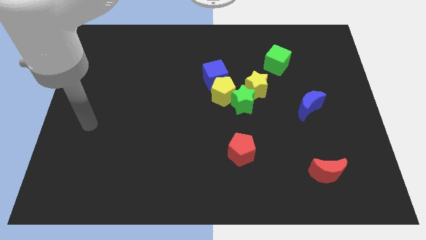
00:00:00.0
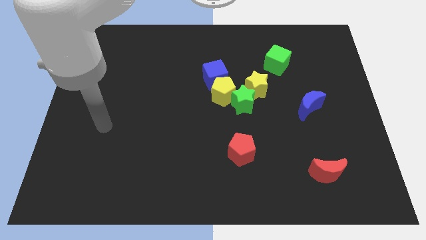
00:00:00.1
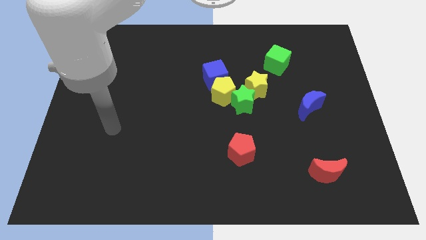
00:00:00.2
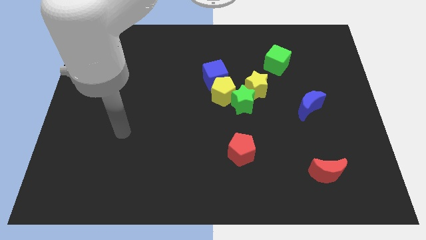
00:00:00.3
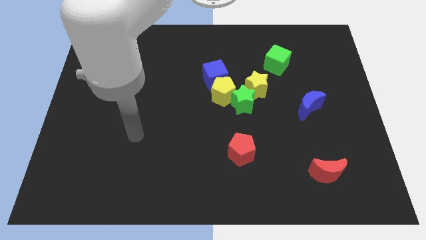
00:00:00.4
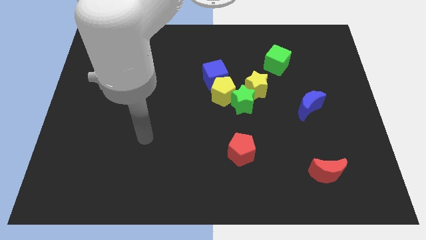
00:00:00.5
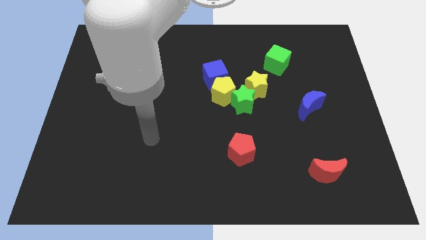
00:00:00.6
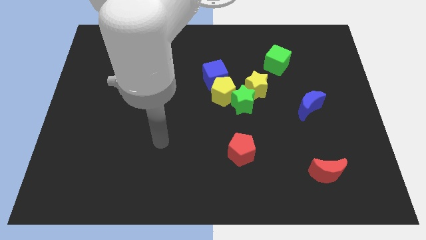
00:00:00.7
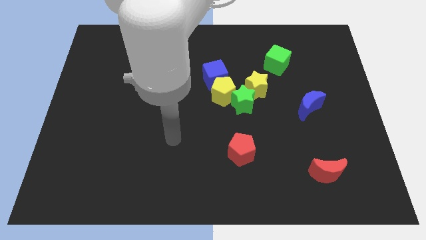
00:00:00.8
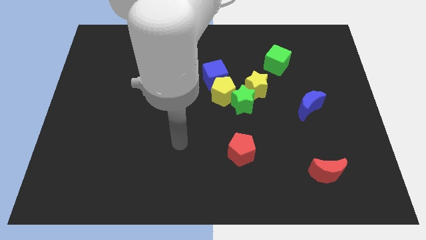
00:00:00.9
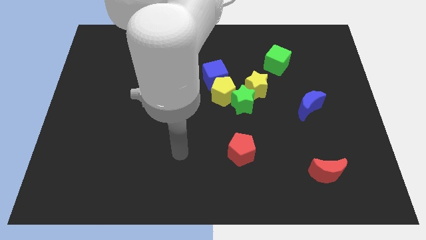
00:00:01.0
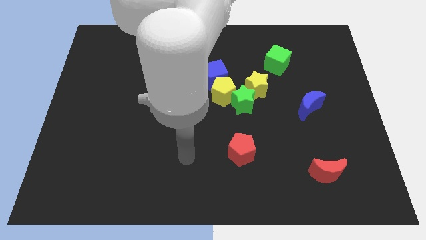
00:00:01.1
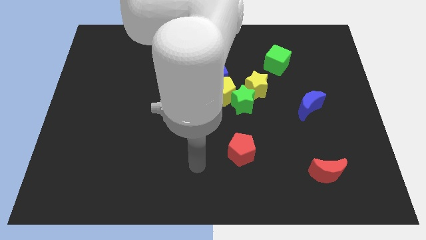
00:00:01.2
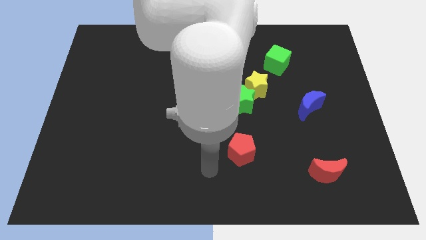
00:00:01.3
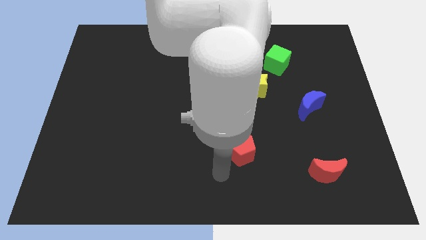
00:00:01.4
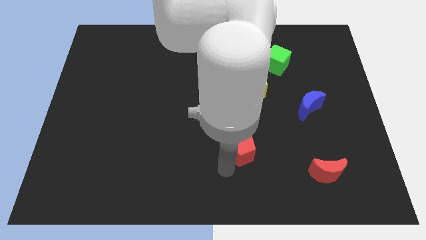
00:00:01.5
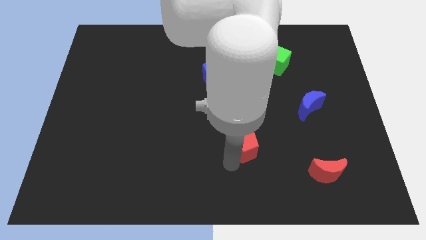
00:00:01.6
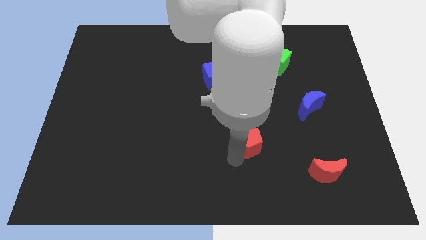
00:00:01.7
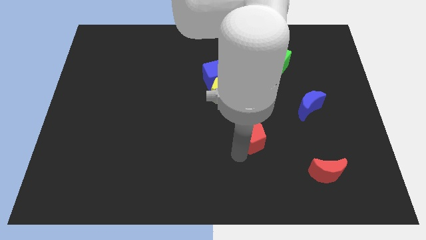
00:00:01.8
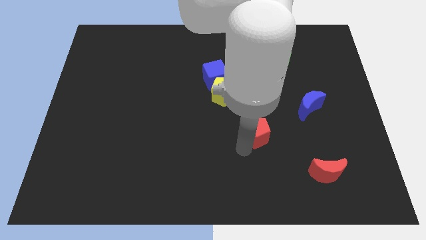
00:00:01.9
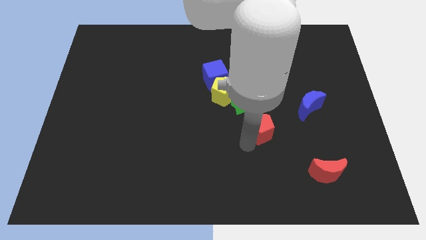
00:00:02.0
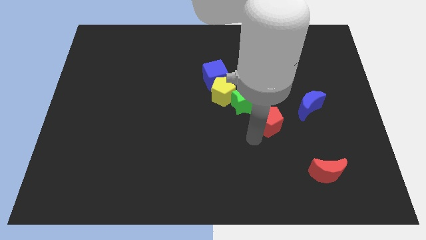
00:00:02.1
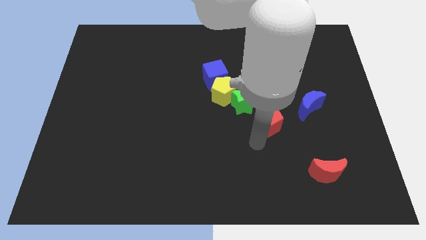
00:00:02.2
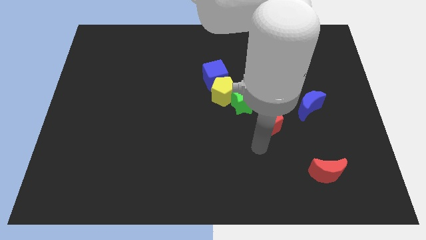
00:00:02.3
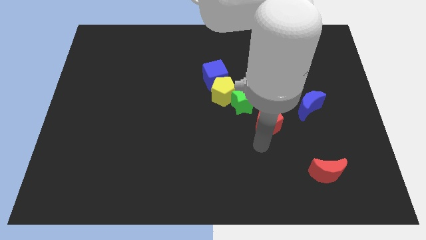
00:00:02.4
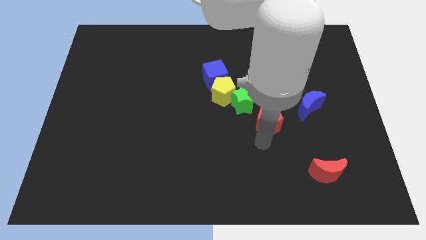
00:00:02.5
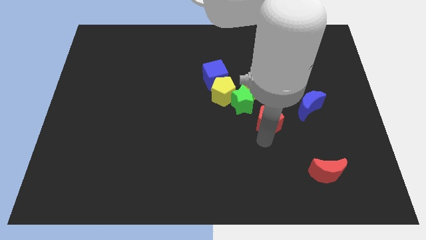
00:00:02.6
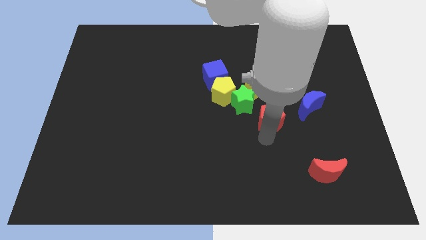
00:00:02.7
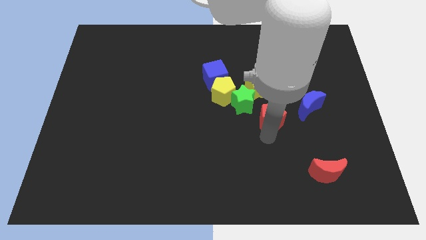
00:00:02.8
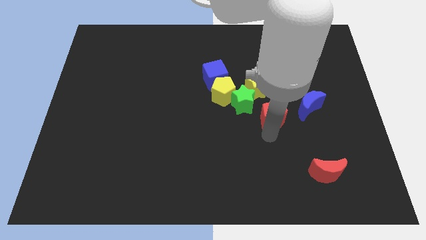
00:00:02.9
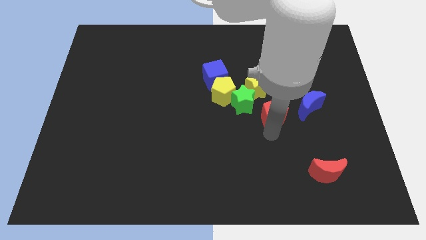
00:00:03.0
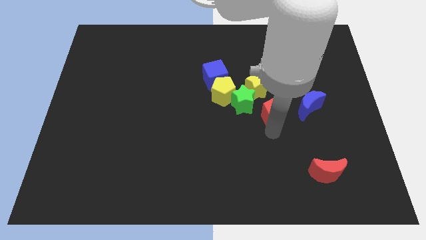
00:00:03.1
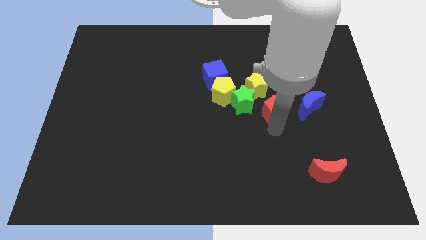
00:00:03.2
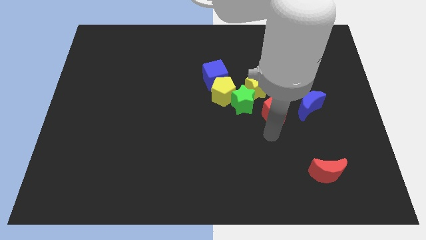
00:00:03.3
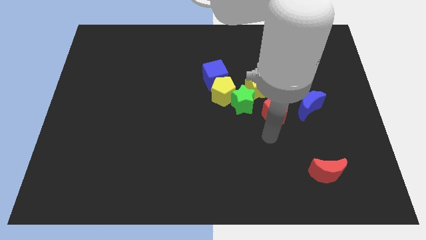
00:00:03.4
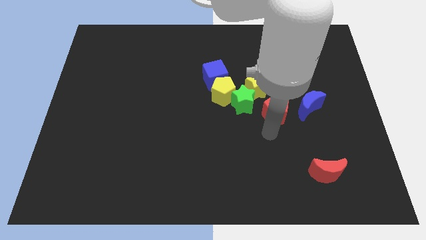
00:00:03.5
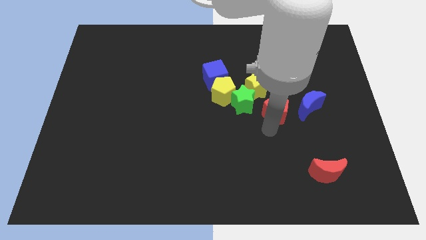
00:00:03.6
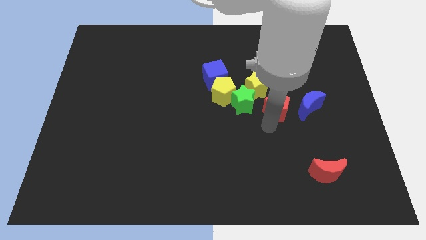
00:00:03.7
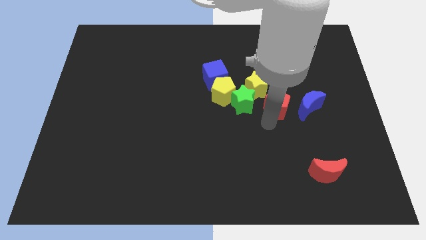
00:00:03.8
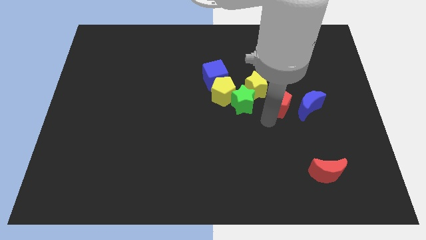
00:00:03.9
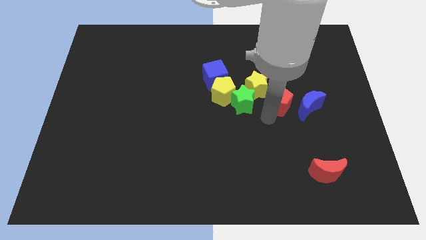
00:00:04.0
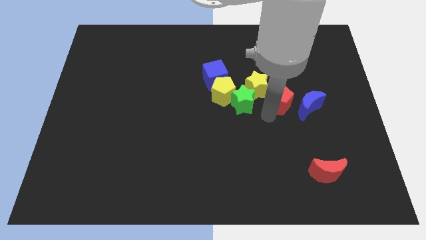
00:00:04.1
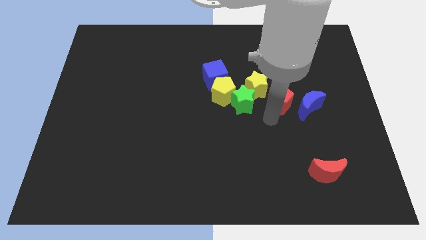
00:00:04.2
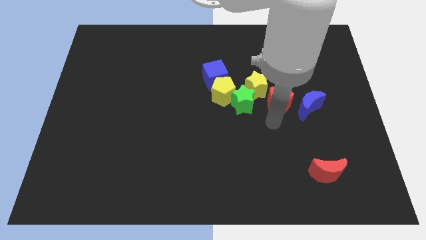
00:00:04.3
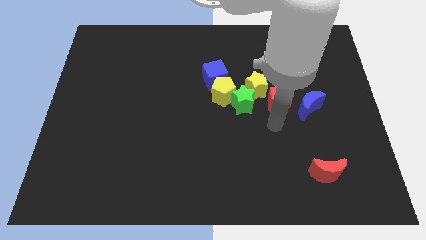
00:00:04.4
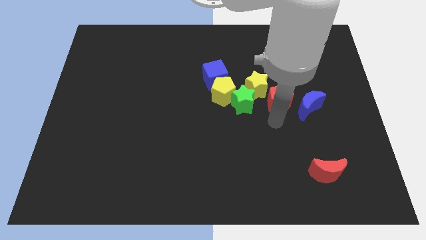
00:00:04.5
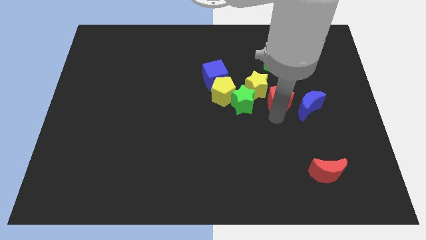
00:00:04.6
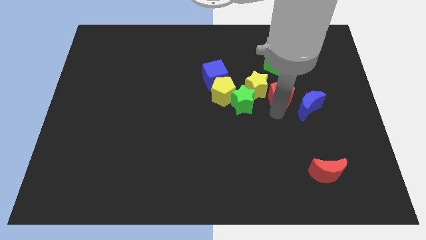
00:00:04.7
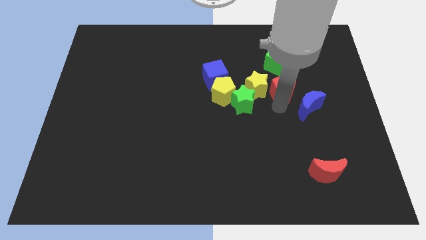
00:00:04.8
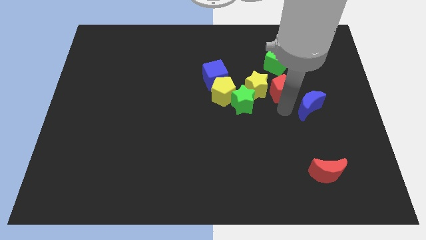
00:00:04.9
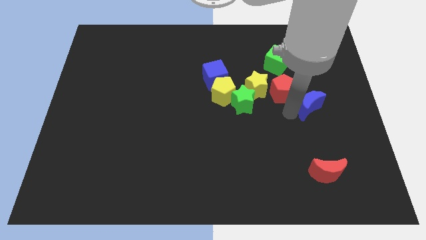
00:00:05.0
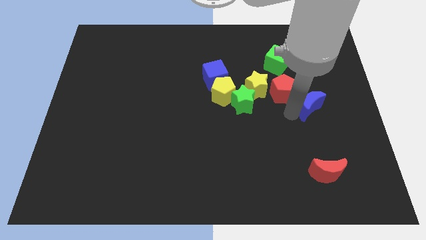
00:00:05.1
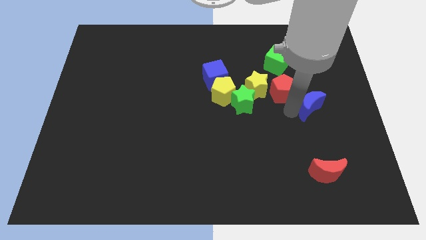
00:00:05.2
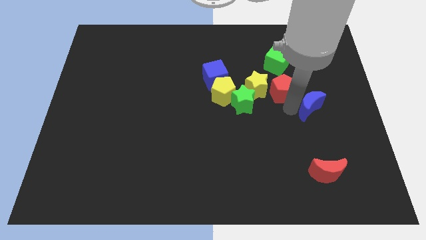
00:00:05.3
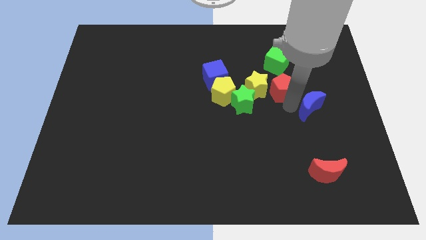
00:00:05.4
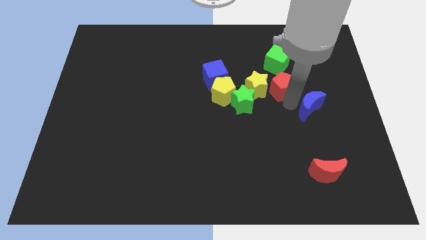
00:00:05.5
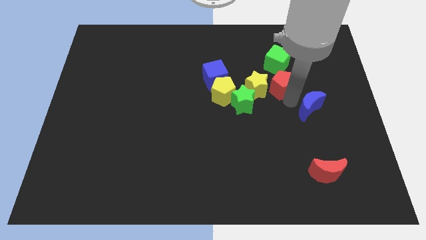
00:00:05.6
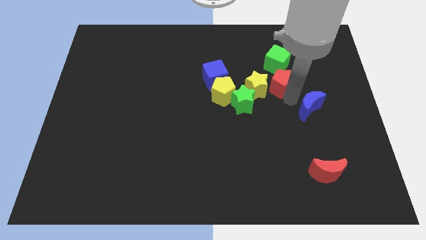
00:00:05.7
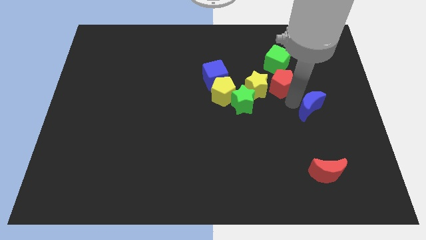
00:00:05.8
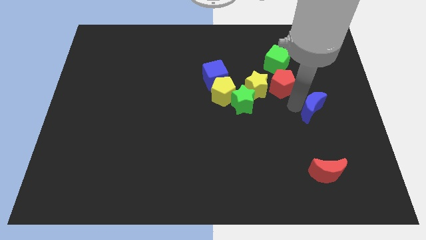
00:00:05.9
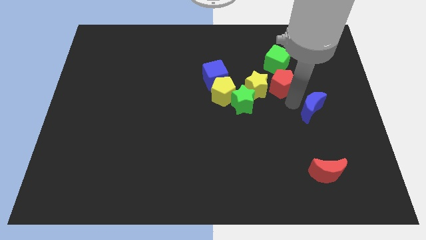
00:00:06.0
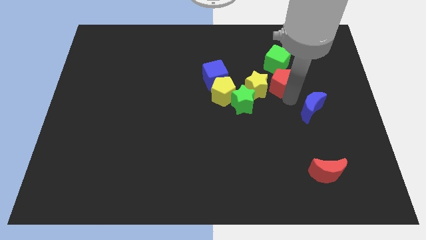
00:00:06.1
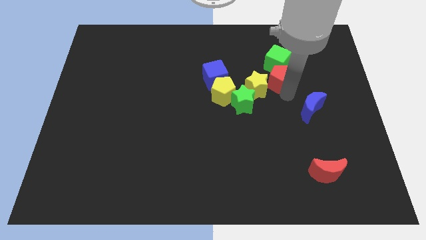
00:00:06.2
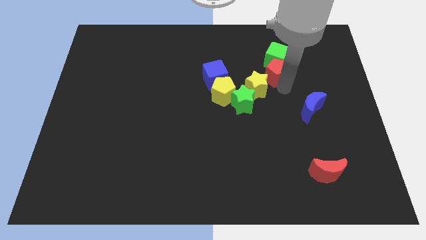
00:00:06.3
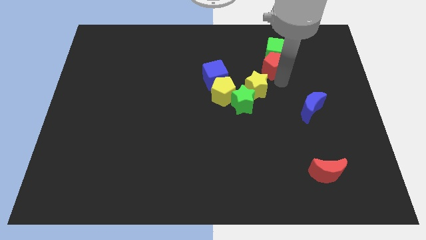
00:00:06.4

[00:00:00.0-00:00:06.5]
move the red pentagon to the top of the yellow star
